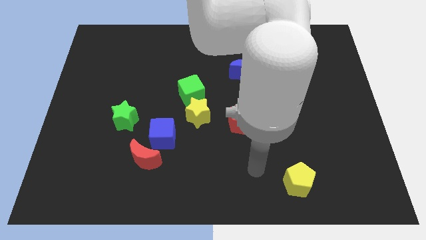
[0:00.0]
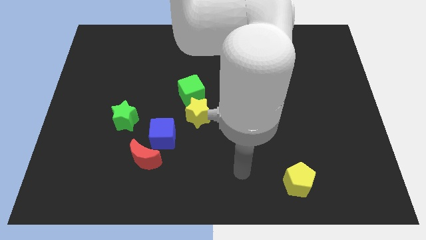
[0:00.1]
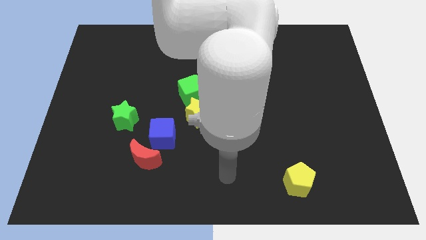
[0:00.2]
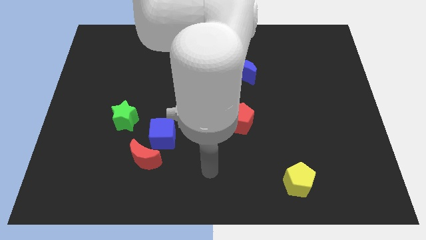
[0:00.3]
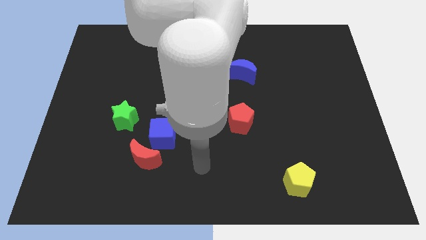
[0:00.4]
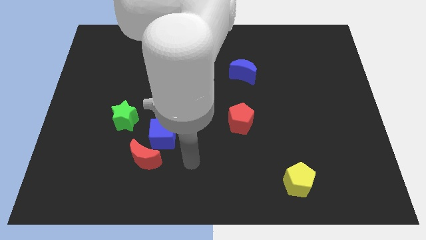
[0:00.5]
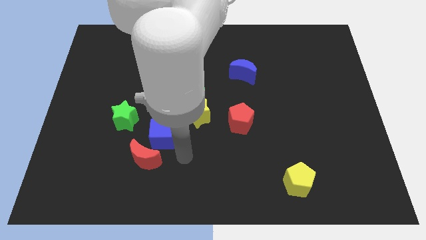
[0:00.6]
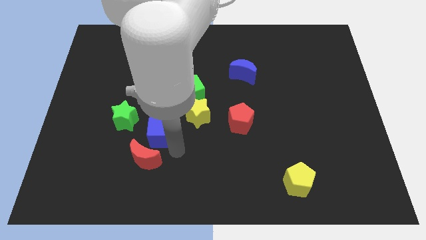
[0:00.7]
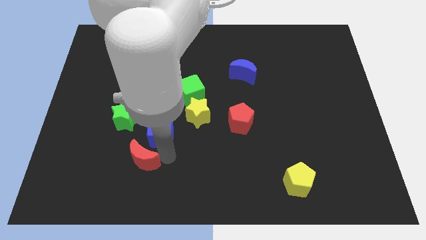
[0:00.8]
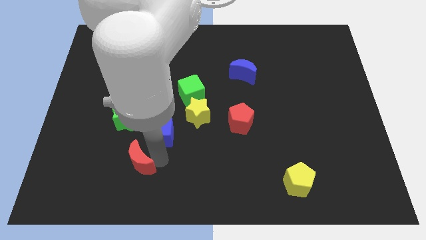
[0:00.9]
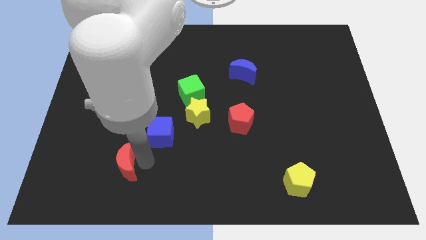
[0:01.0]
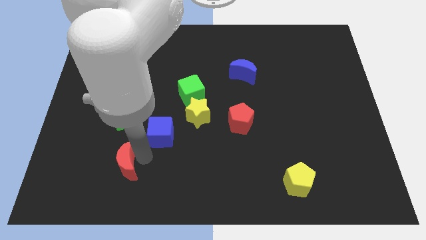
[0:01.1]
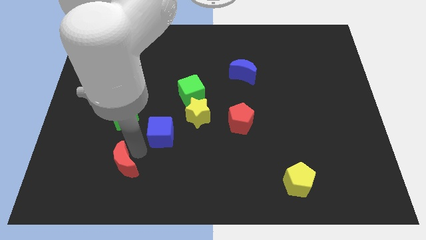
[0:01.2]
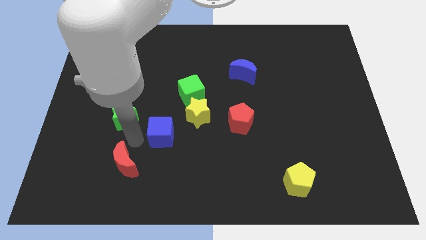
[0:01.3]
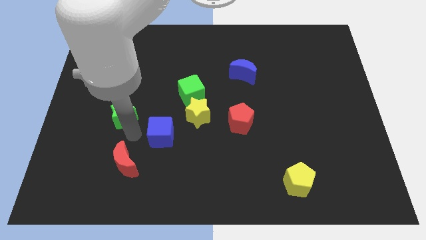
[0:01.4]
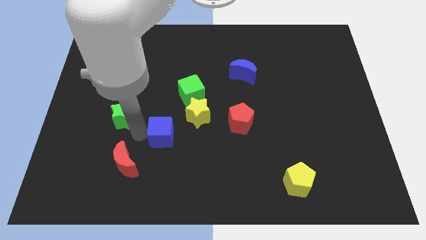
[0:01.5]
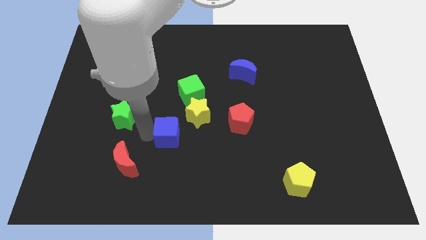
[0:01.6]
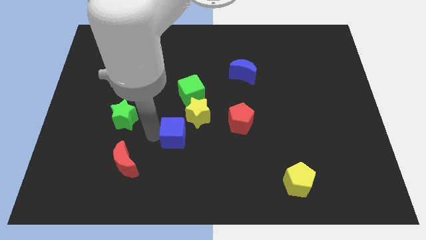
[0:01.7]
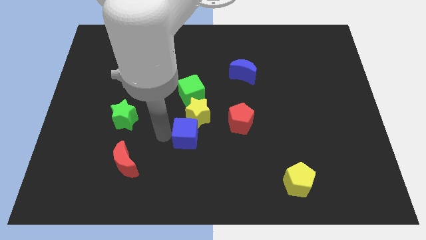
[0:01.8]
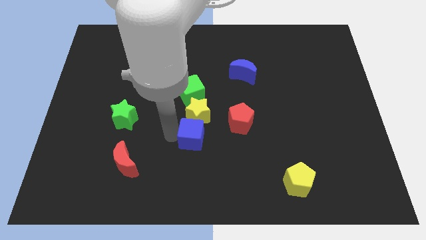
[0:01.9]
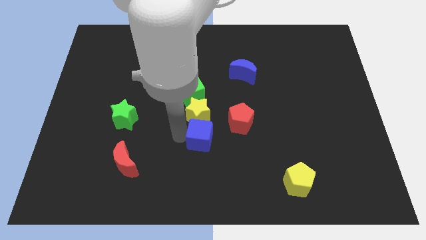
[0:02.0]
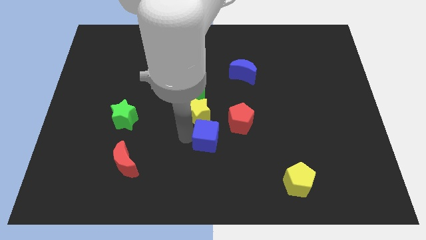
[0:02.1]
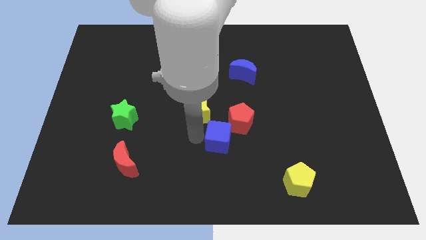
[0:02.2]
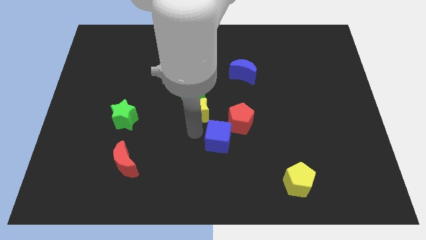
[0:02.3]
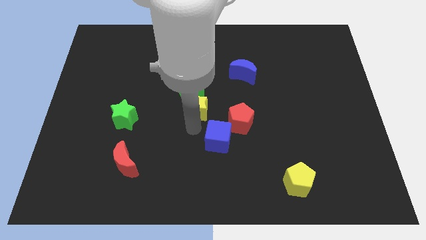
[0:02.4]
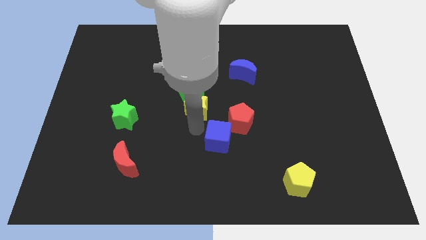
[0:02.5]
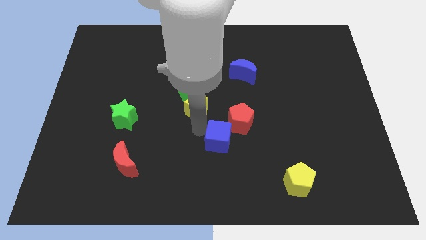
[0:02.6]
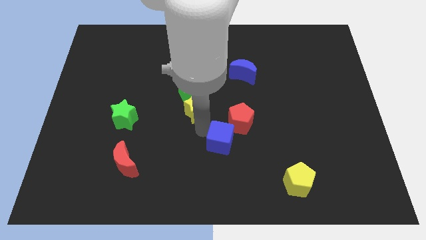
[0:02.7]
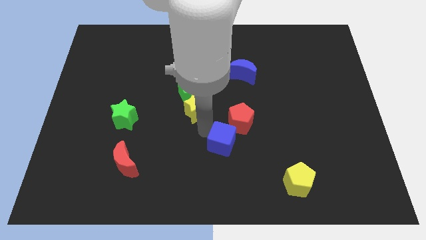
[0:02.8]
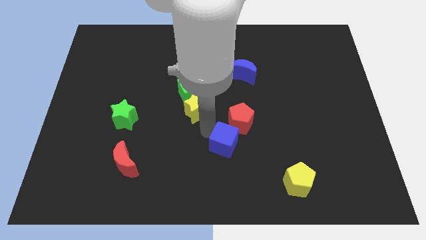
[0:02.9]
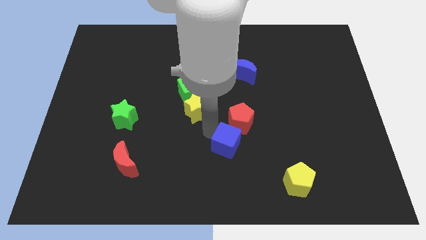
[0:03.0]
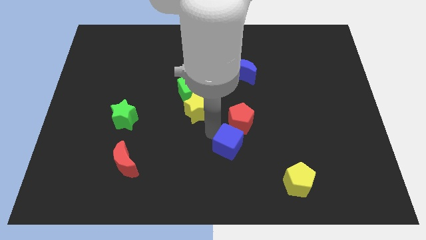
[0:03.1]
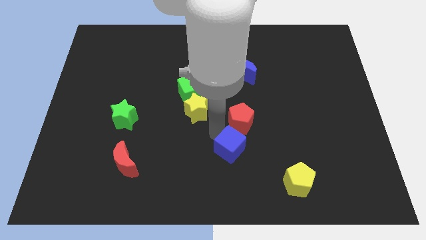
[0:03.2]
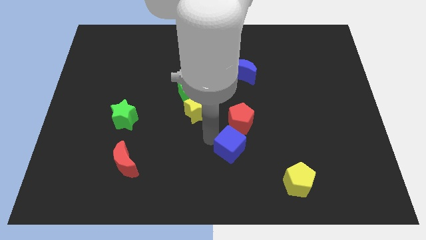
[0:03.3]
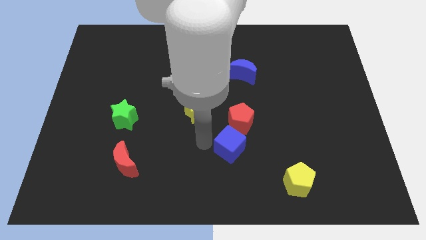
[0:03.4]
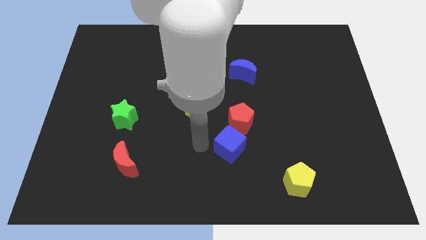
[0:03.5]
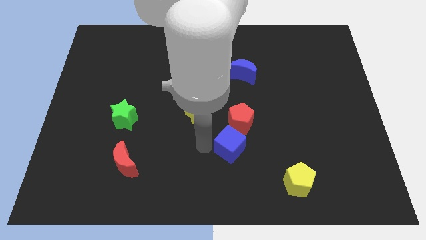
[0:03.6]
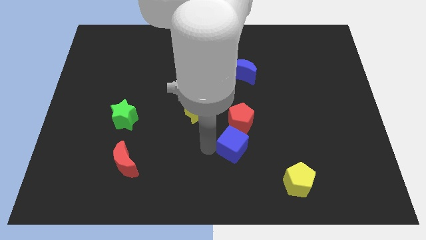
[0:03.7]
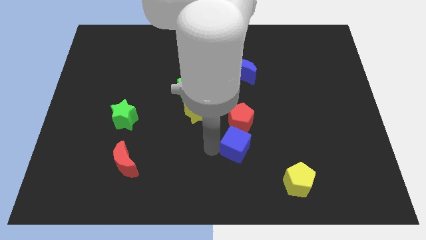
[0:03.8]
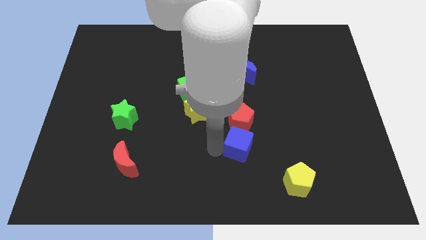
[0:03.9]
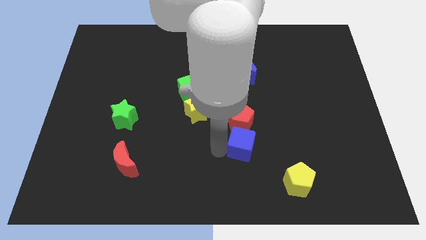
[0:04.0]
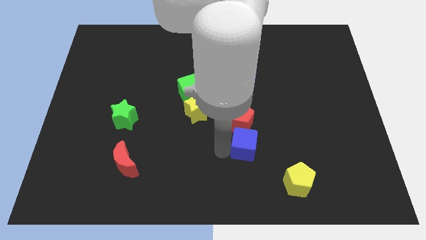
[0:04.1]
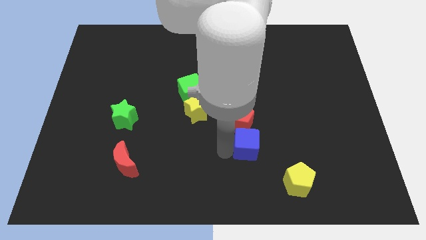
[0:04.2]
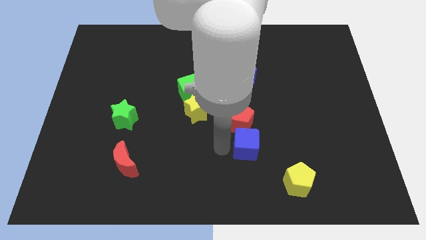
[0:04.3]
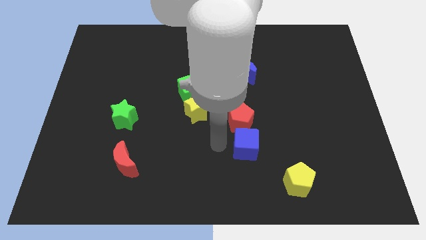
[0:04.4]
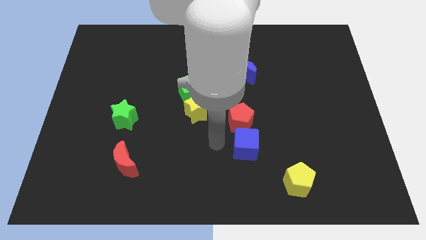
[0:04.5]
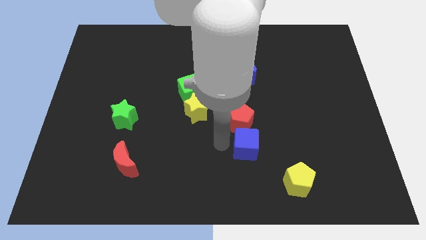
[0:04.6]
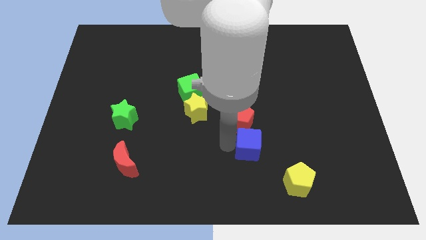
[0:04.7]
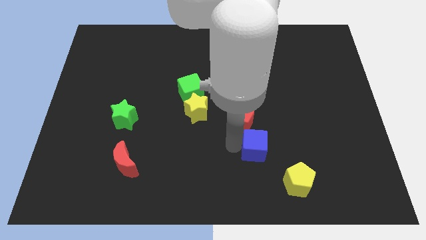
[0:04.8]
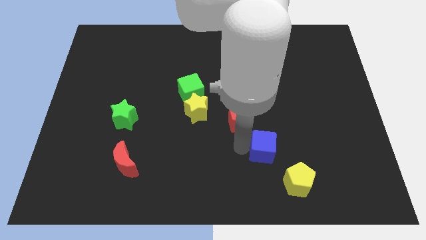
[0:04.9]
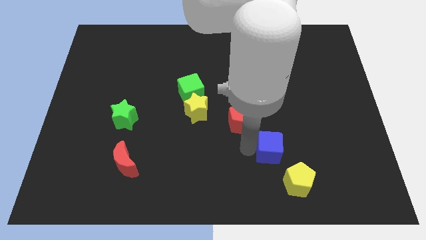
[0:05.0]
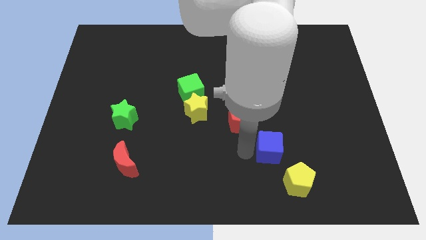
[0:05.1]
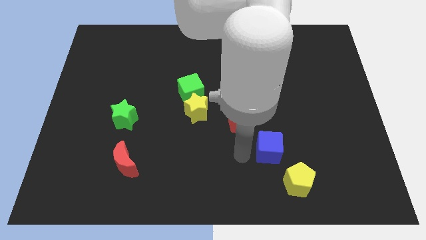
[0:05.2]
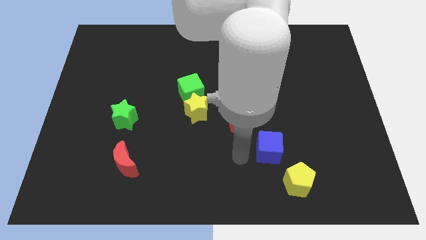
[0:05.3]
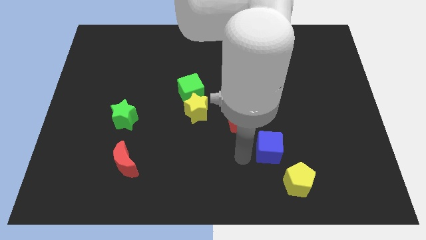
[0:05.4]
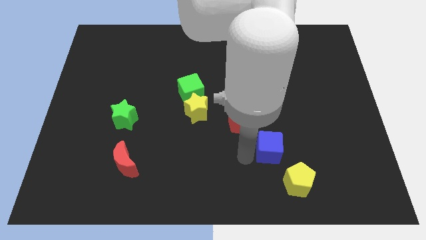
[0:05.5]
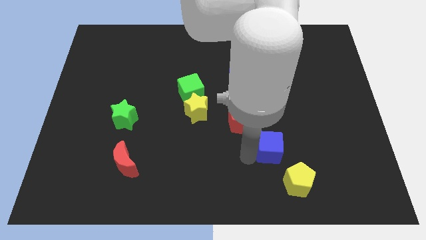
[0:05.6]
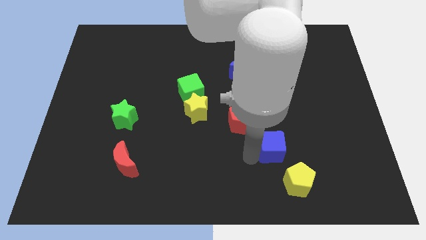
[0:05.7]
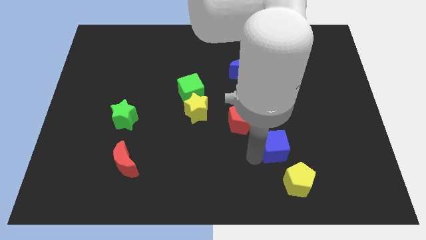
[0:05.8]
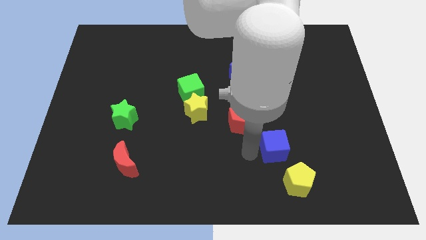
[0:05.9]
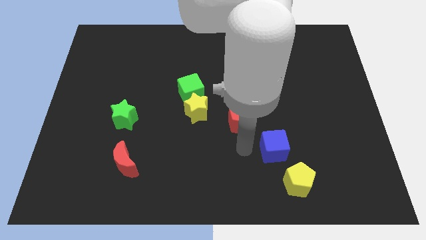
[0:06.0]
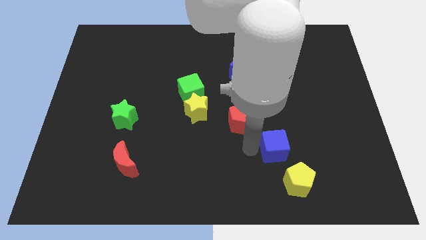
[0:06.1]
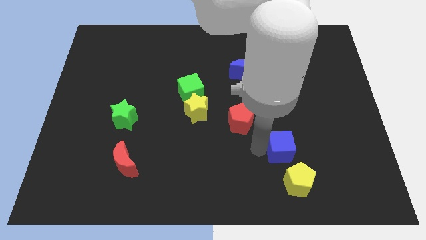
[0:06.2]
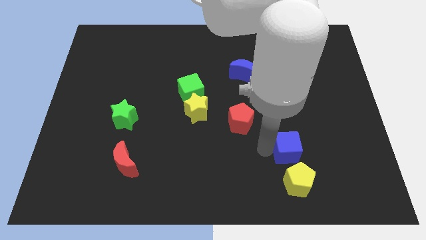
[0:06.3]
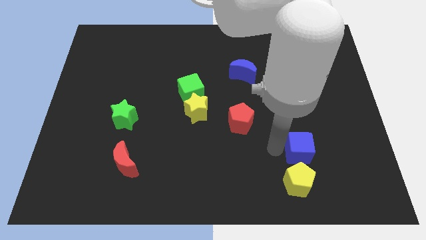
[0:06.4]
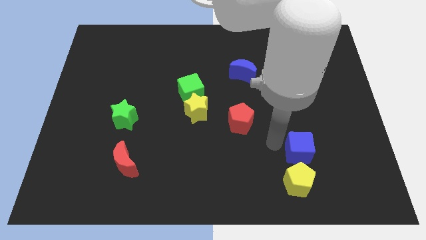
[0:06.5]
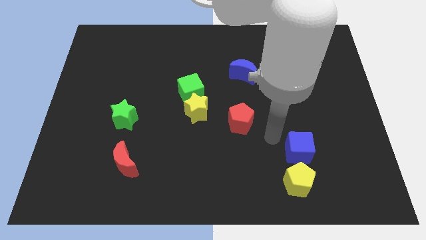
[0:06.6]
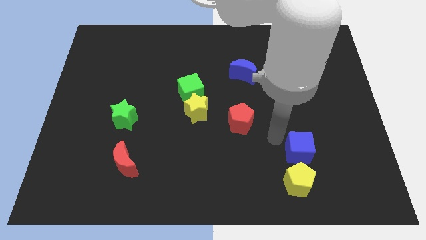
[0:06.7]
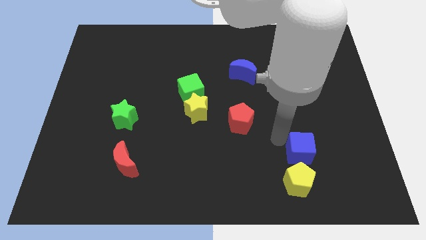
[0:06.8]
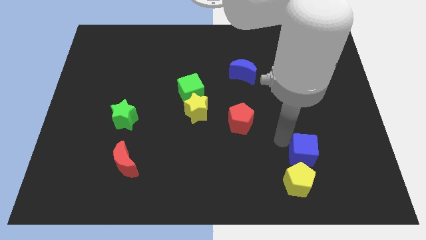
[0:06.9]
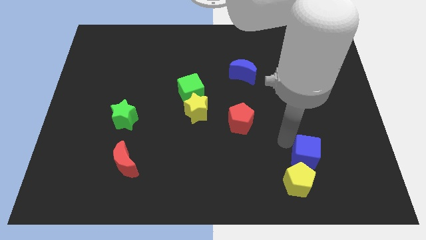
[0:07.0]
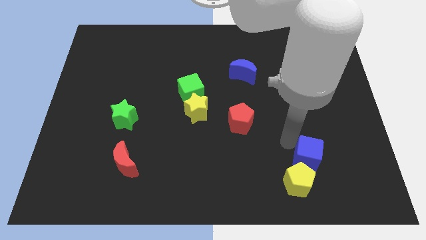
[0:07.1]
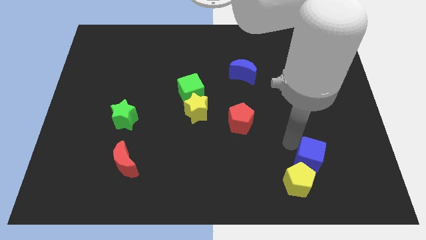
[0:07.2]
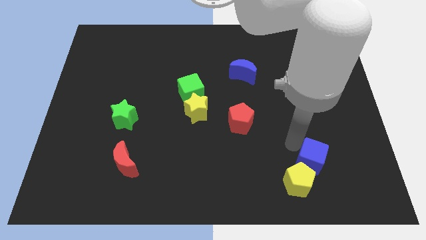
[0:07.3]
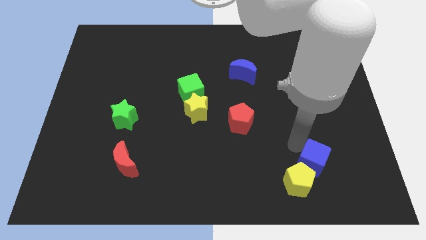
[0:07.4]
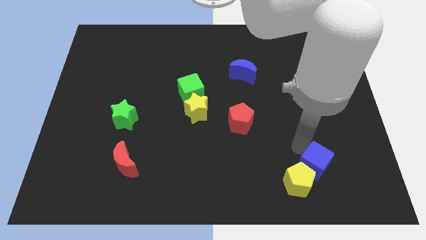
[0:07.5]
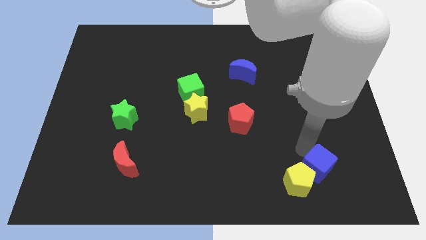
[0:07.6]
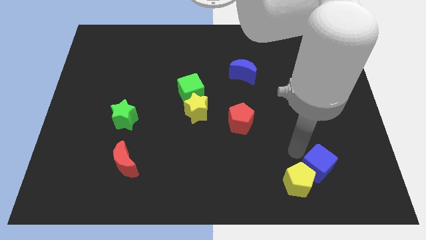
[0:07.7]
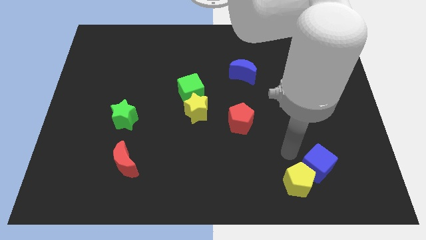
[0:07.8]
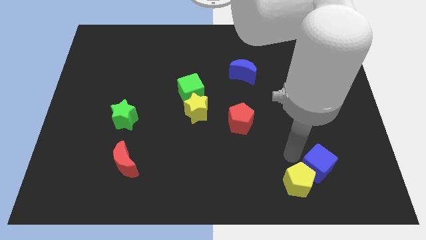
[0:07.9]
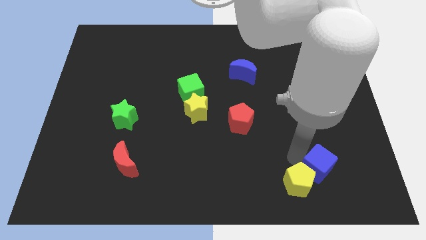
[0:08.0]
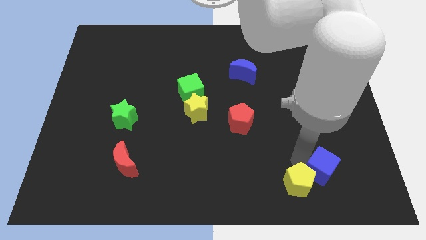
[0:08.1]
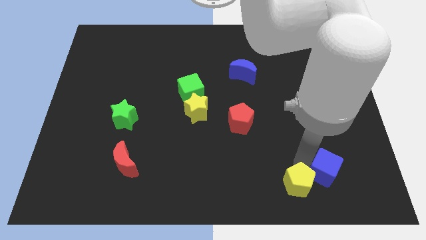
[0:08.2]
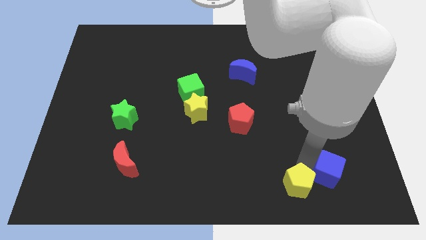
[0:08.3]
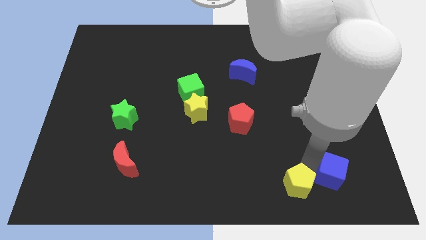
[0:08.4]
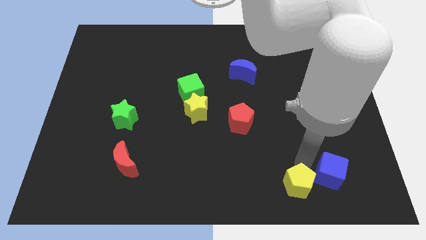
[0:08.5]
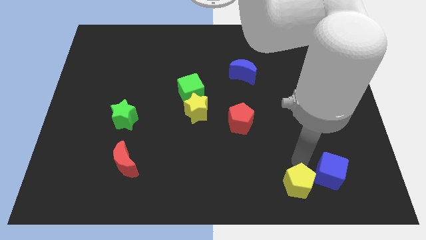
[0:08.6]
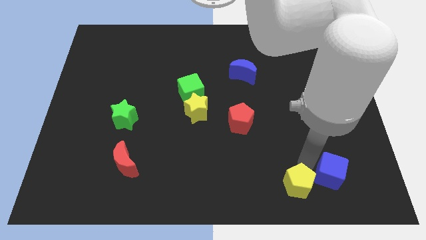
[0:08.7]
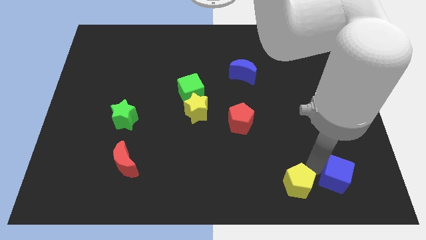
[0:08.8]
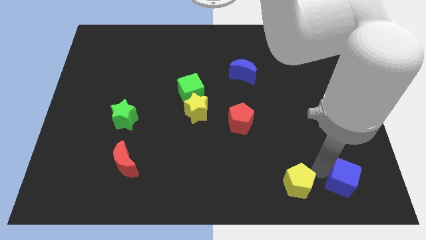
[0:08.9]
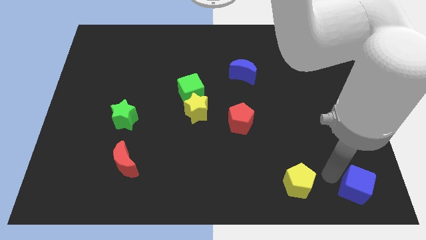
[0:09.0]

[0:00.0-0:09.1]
put the blue cube to the bottom right corner
